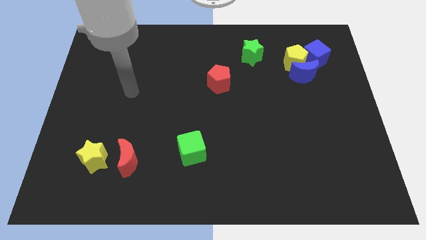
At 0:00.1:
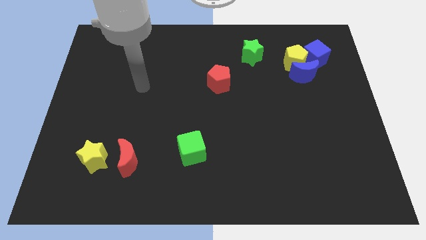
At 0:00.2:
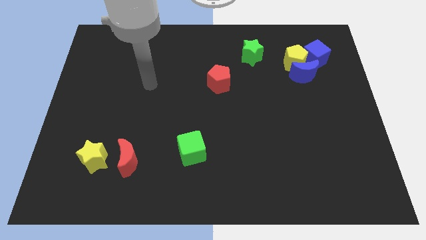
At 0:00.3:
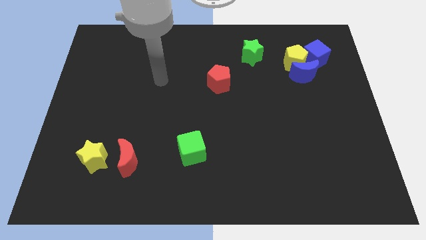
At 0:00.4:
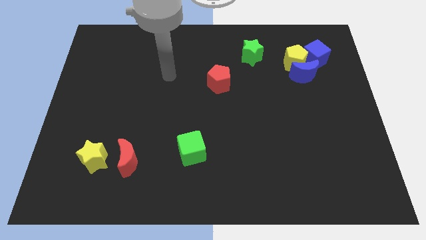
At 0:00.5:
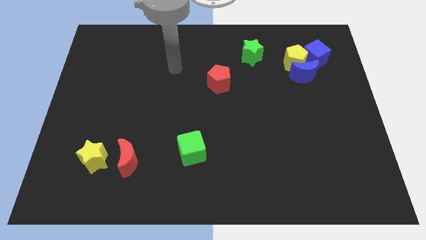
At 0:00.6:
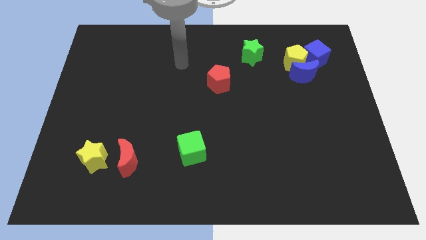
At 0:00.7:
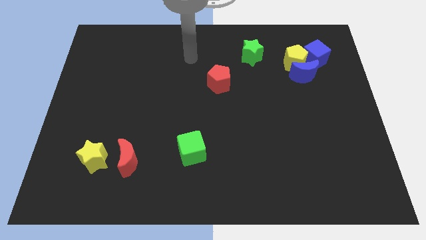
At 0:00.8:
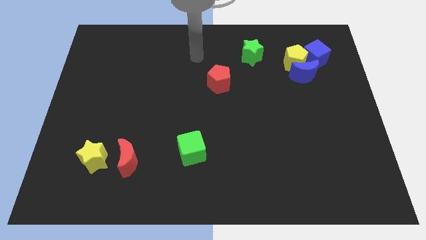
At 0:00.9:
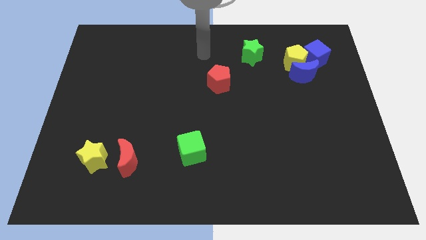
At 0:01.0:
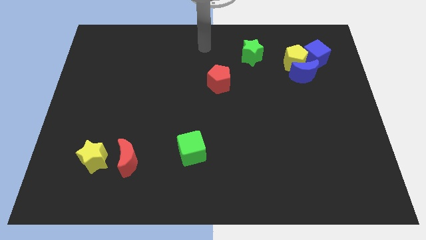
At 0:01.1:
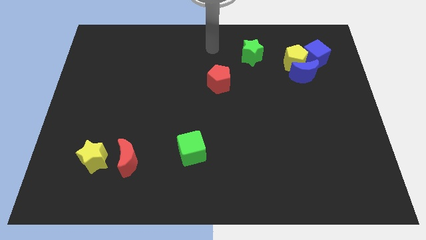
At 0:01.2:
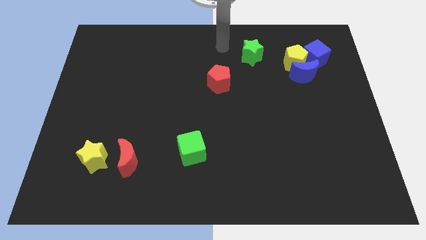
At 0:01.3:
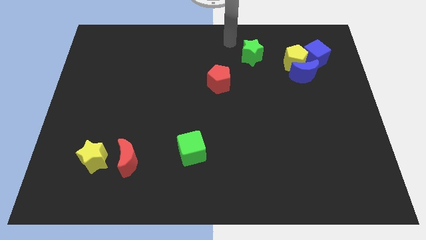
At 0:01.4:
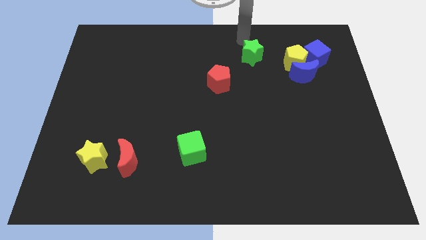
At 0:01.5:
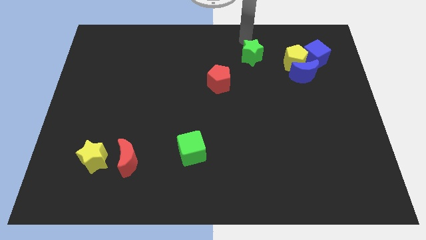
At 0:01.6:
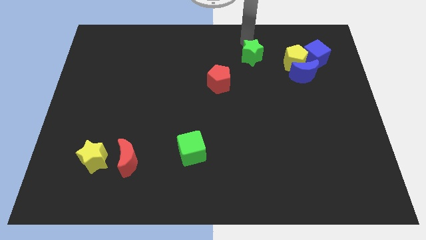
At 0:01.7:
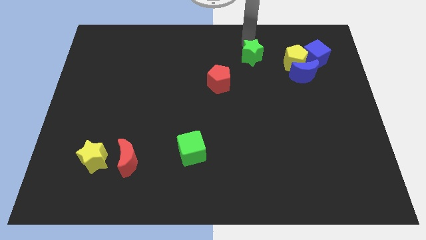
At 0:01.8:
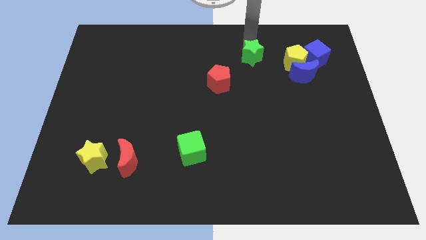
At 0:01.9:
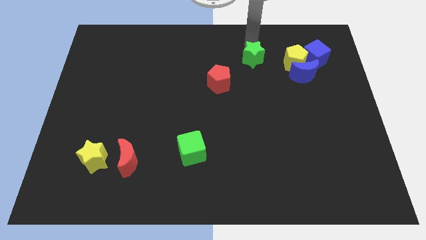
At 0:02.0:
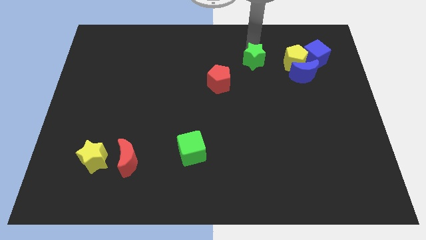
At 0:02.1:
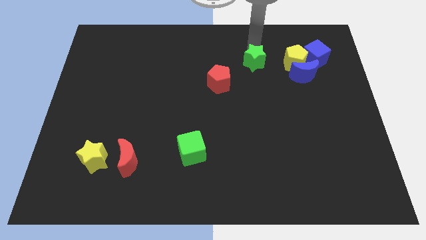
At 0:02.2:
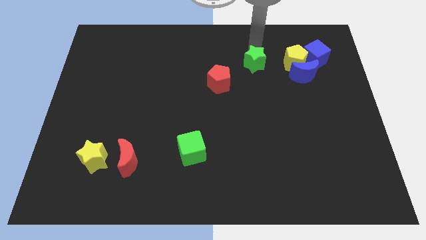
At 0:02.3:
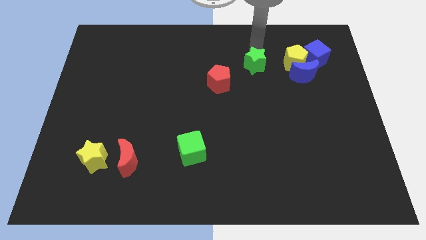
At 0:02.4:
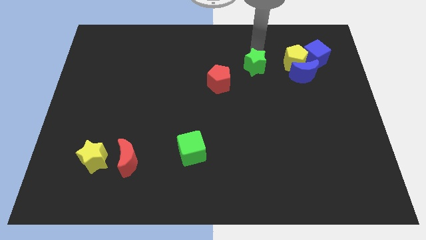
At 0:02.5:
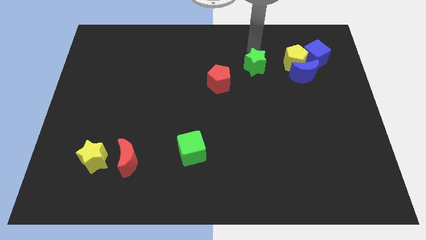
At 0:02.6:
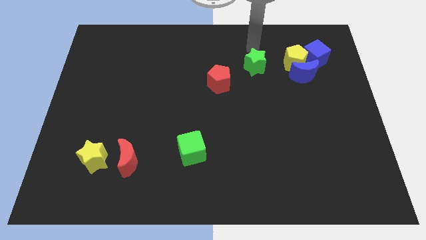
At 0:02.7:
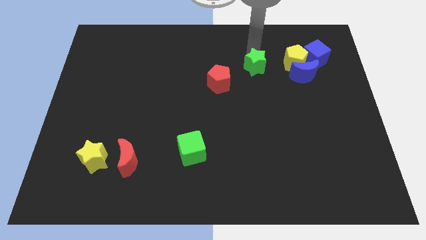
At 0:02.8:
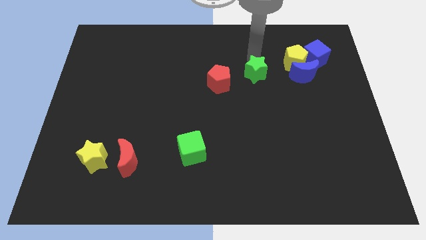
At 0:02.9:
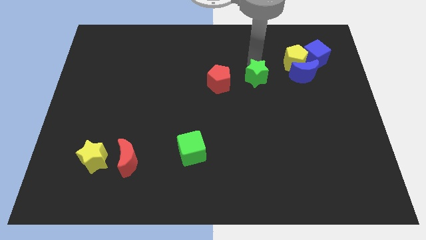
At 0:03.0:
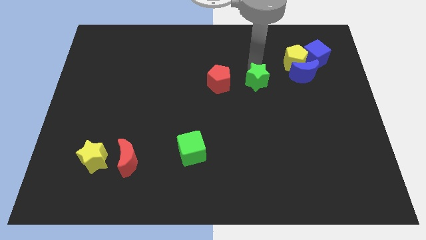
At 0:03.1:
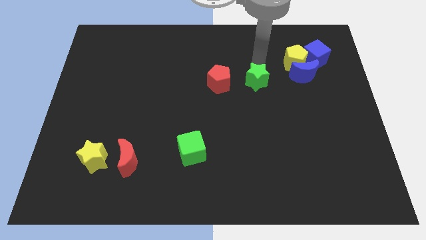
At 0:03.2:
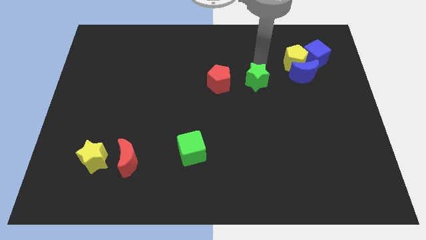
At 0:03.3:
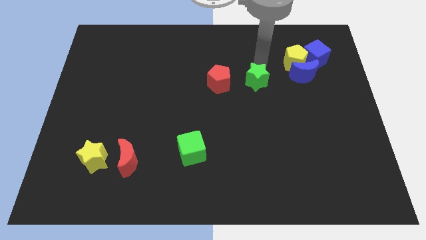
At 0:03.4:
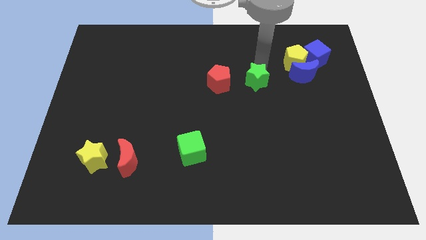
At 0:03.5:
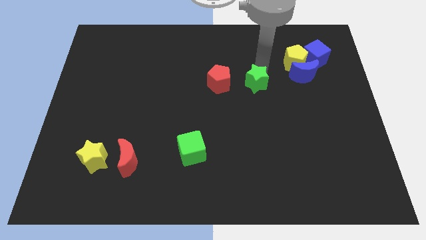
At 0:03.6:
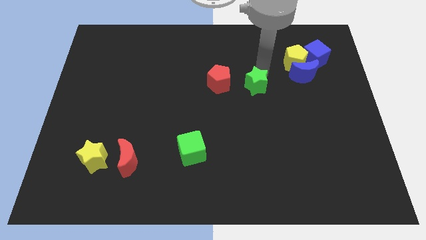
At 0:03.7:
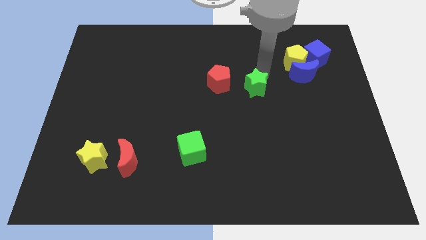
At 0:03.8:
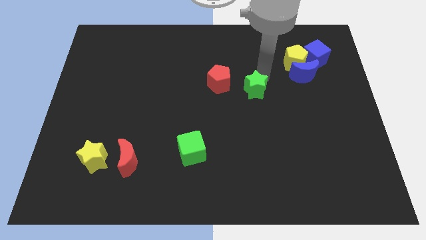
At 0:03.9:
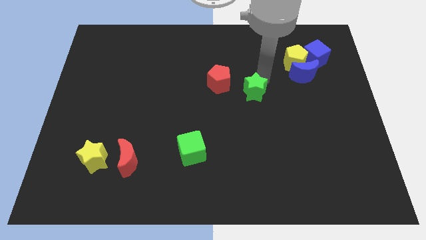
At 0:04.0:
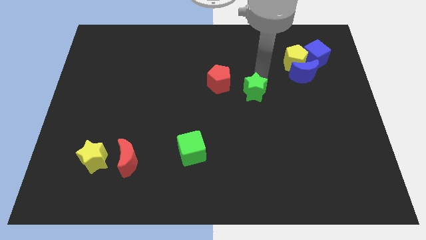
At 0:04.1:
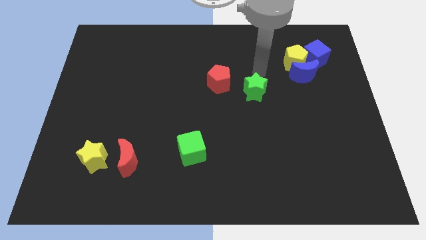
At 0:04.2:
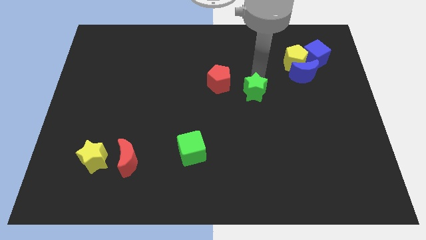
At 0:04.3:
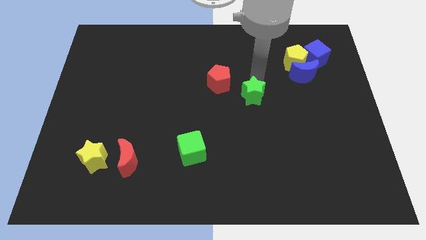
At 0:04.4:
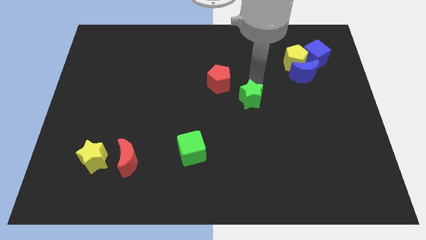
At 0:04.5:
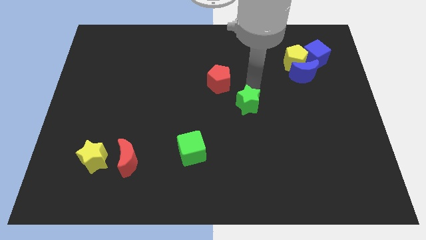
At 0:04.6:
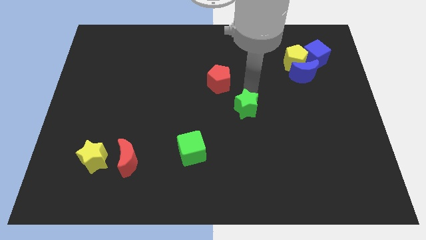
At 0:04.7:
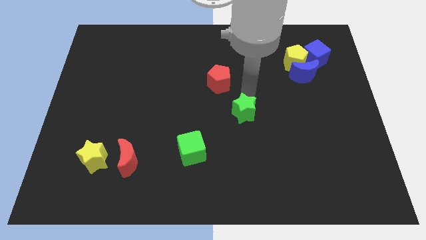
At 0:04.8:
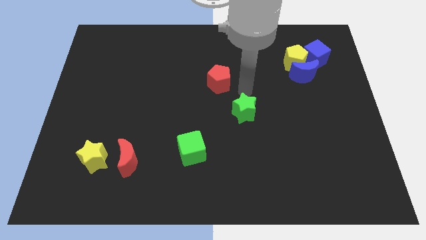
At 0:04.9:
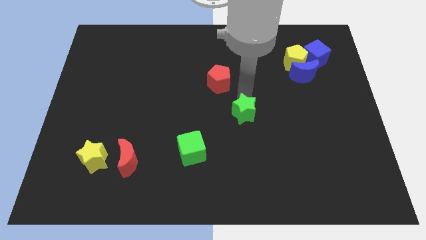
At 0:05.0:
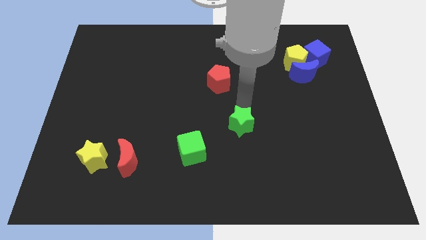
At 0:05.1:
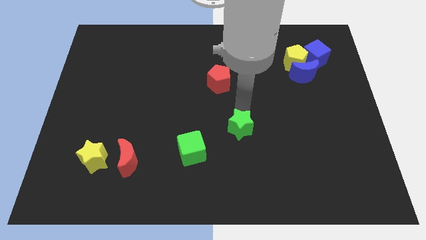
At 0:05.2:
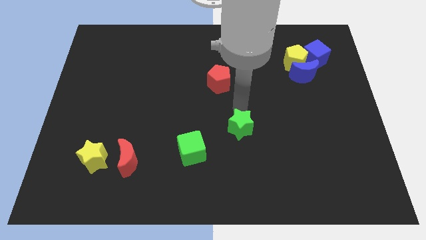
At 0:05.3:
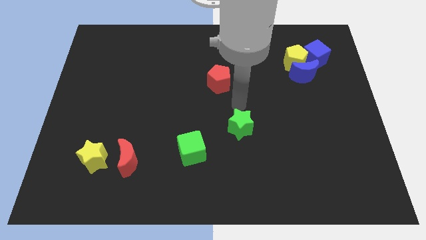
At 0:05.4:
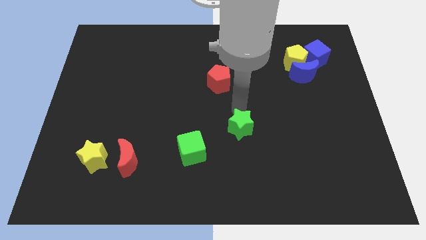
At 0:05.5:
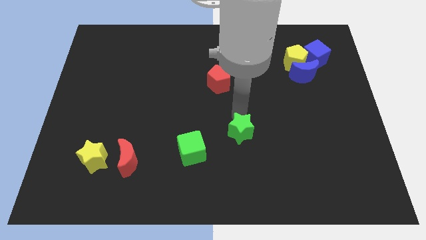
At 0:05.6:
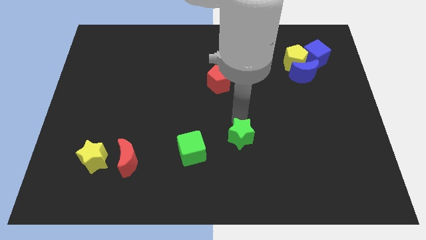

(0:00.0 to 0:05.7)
move the green star right of the green cube

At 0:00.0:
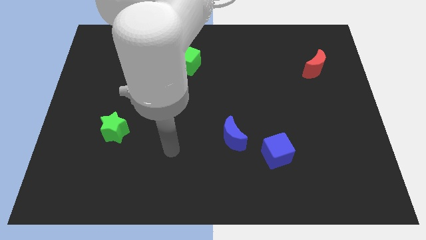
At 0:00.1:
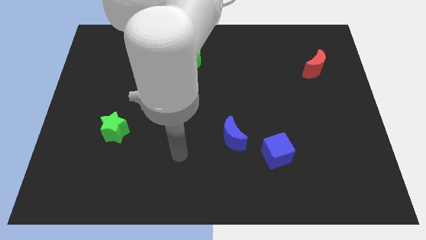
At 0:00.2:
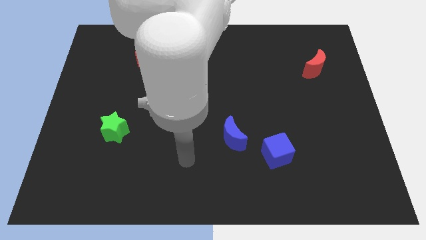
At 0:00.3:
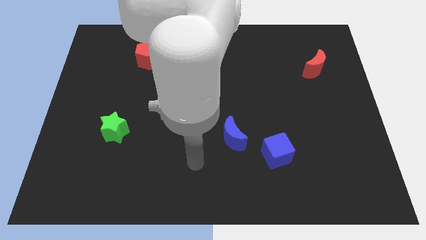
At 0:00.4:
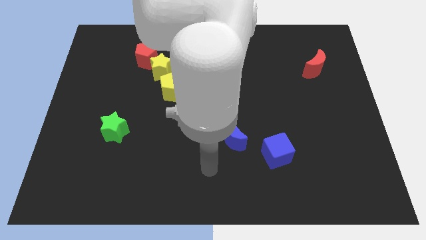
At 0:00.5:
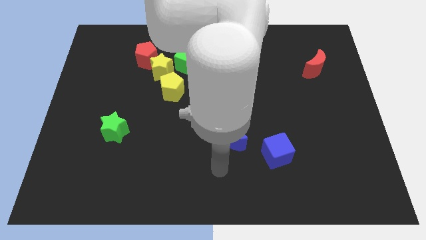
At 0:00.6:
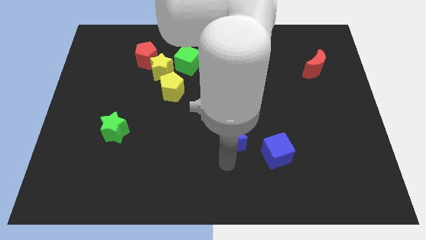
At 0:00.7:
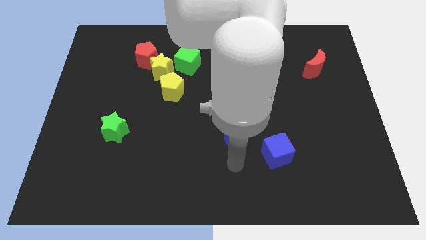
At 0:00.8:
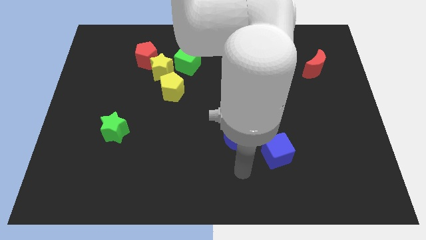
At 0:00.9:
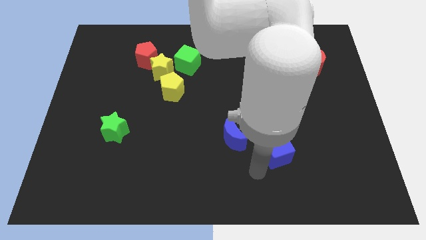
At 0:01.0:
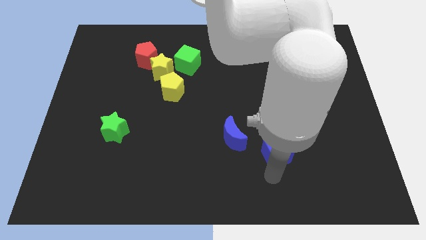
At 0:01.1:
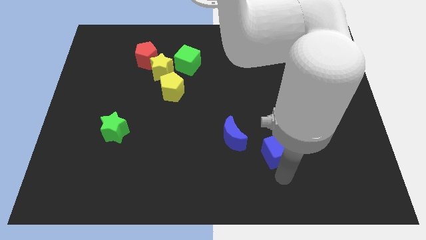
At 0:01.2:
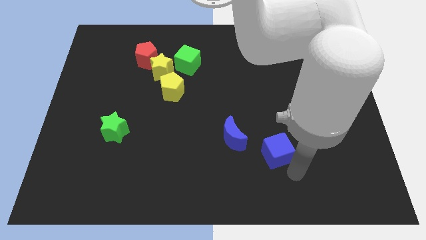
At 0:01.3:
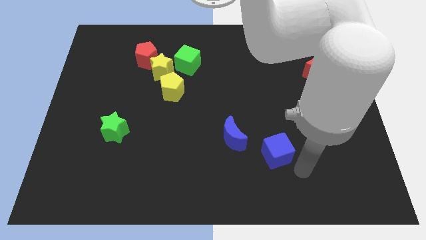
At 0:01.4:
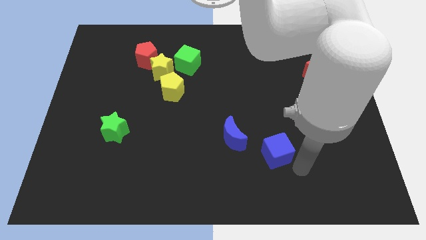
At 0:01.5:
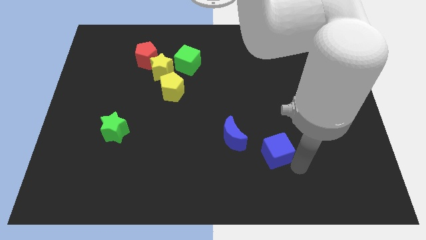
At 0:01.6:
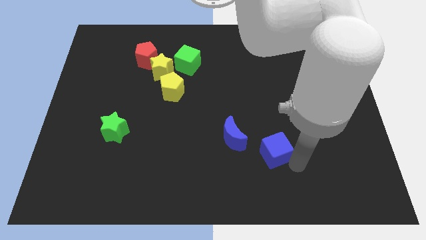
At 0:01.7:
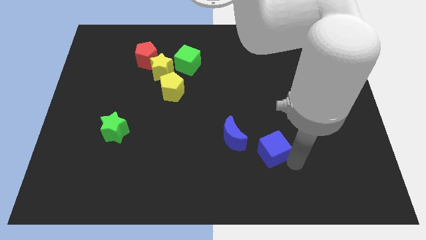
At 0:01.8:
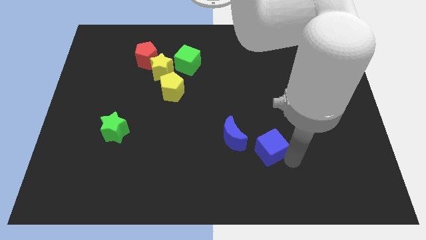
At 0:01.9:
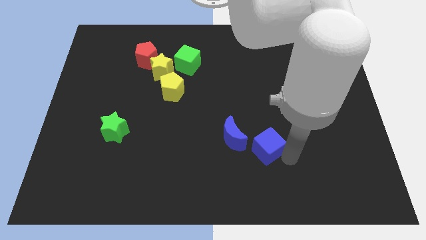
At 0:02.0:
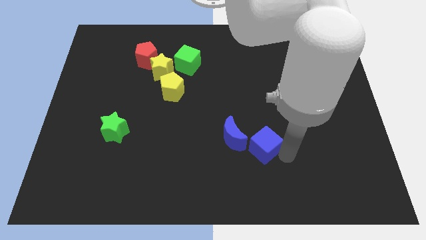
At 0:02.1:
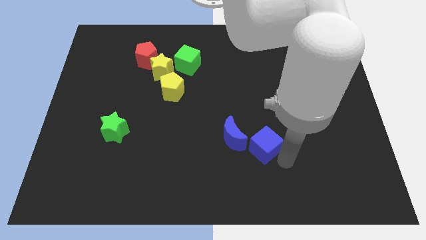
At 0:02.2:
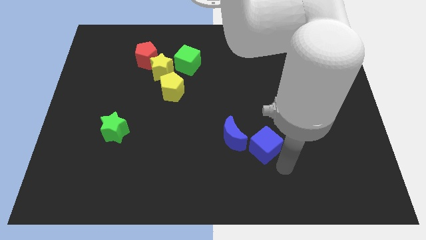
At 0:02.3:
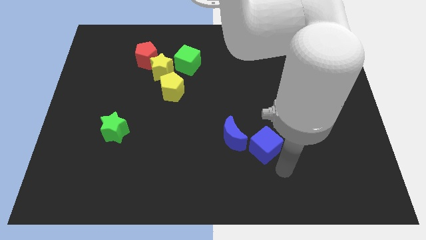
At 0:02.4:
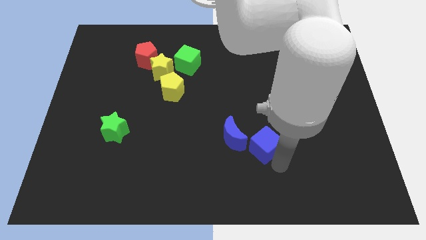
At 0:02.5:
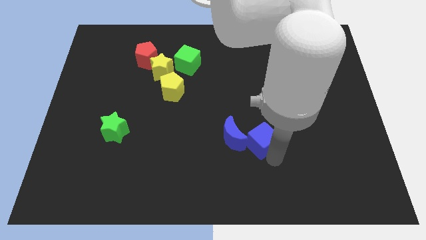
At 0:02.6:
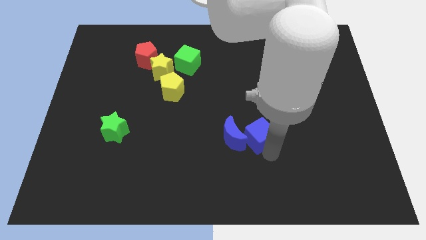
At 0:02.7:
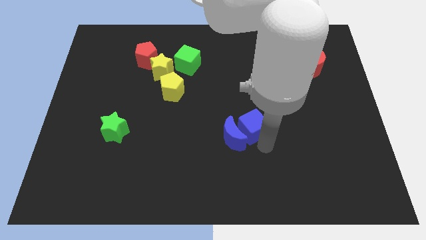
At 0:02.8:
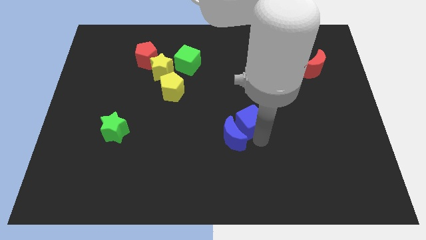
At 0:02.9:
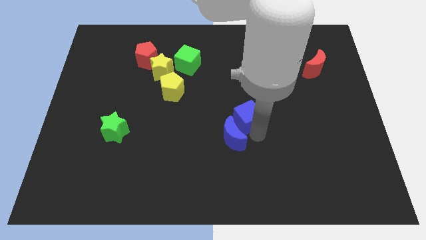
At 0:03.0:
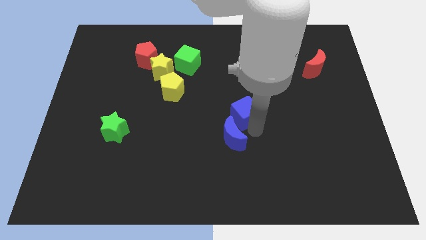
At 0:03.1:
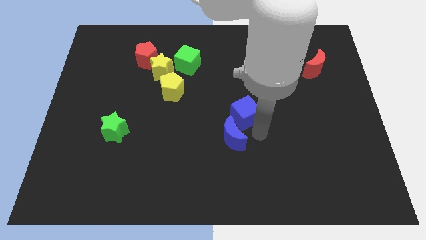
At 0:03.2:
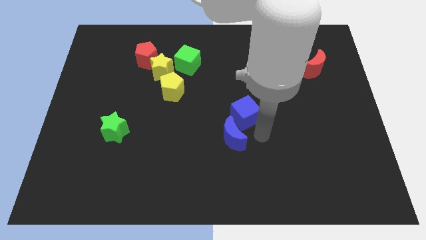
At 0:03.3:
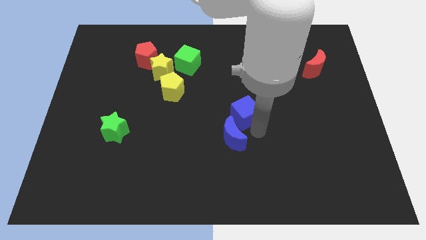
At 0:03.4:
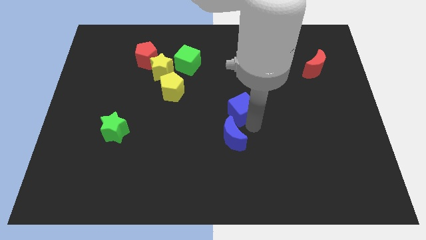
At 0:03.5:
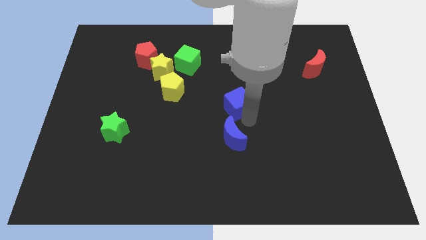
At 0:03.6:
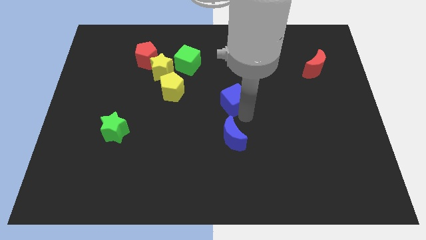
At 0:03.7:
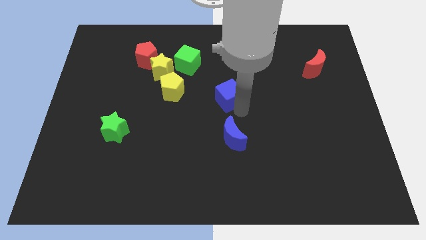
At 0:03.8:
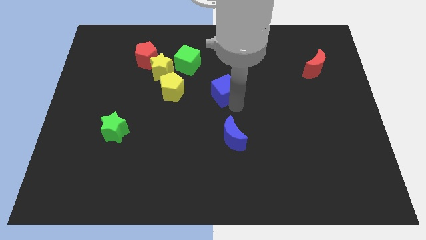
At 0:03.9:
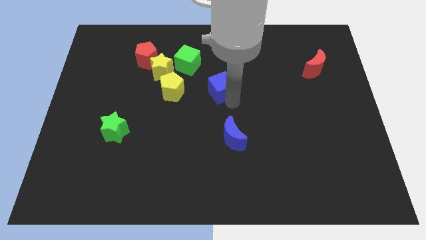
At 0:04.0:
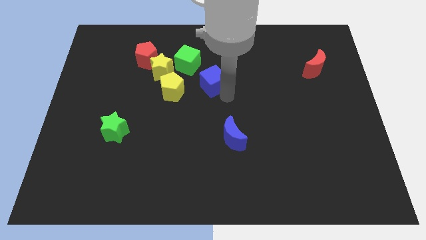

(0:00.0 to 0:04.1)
move the blue cube to the right side of the yellow star
